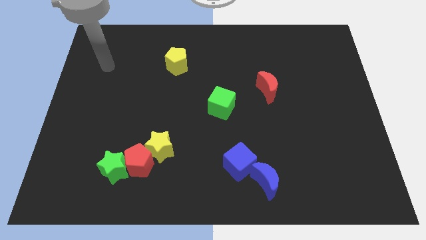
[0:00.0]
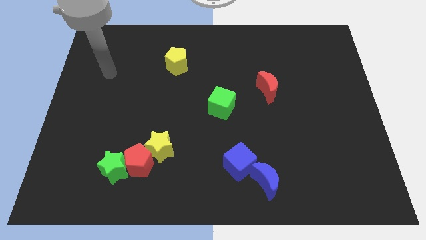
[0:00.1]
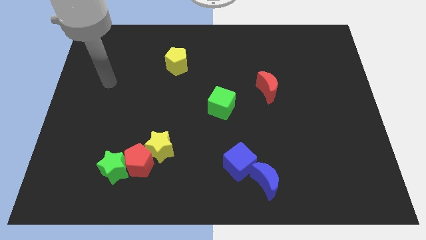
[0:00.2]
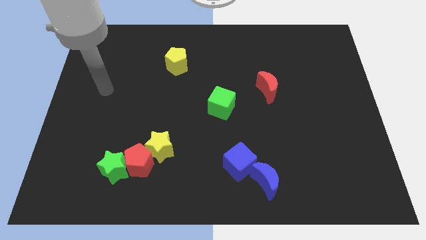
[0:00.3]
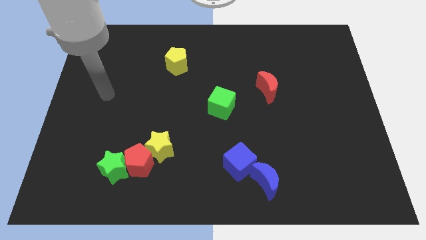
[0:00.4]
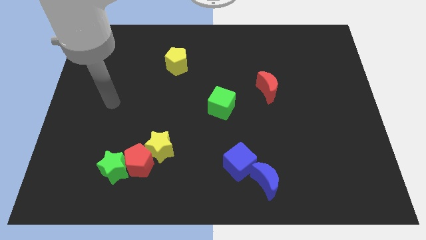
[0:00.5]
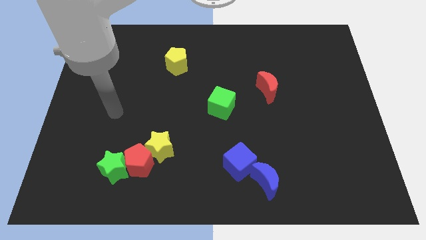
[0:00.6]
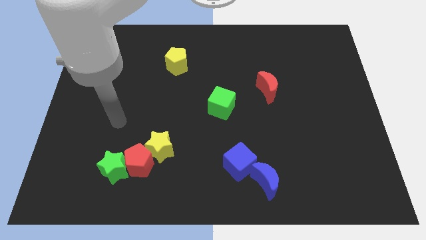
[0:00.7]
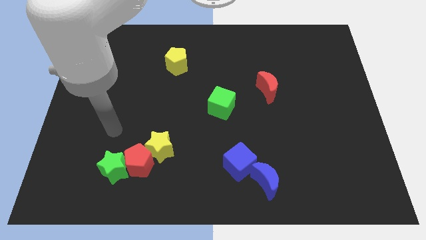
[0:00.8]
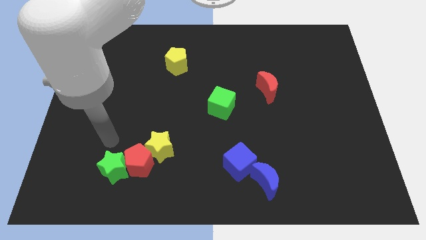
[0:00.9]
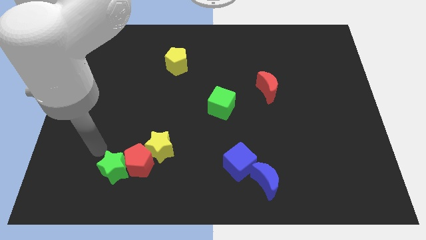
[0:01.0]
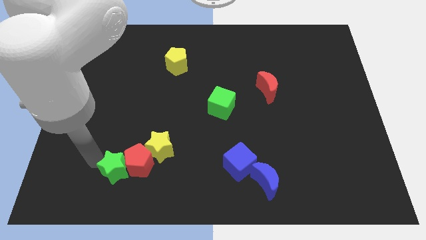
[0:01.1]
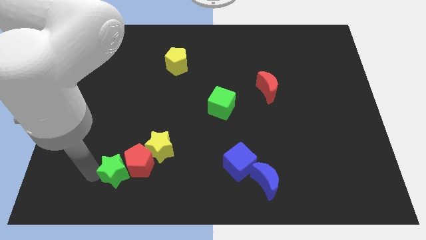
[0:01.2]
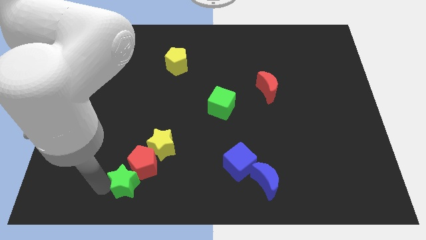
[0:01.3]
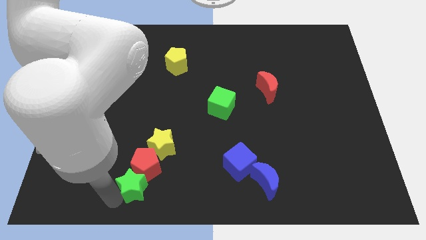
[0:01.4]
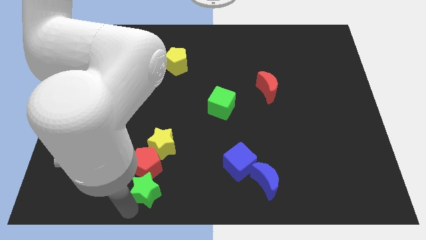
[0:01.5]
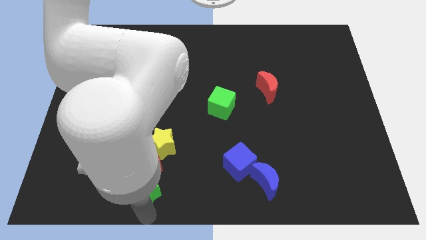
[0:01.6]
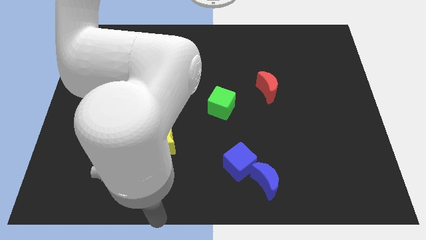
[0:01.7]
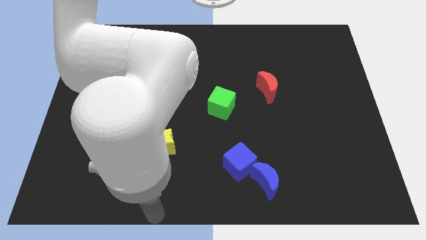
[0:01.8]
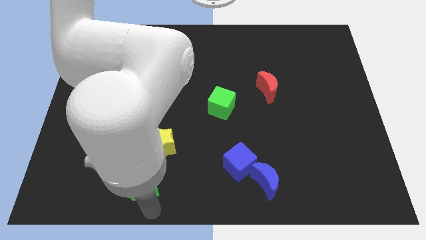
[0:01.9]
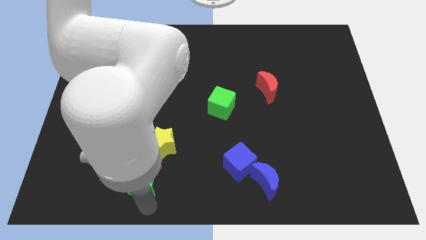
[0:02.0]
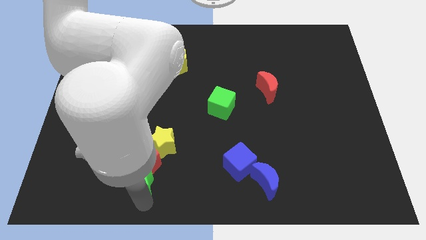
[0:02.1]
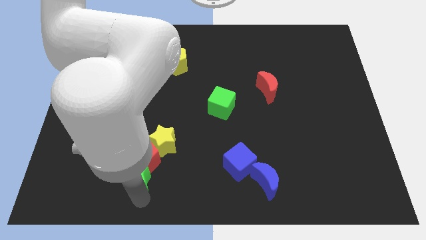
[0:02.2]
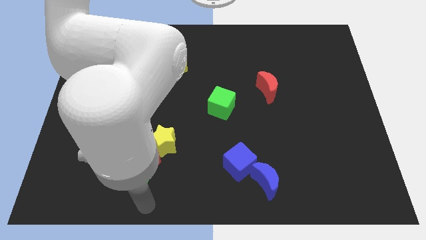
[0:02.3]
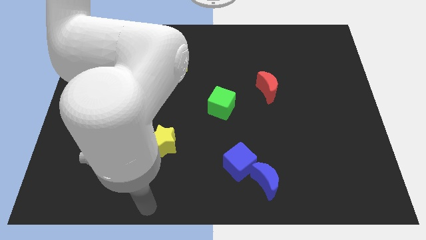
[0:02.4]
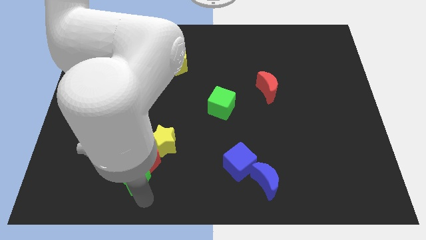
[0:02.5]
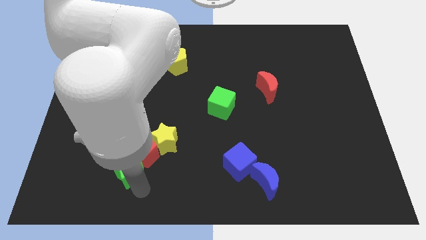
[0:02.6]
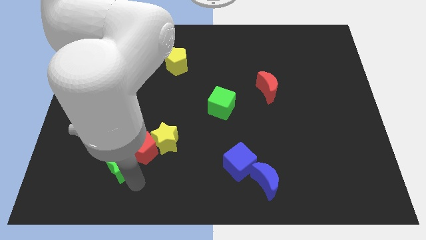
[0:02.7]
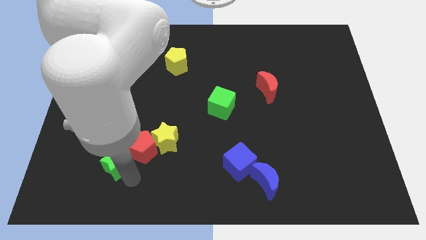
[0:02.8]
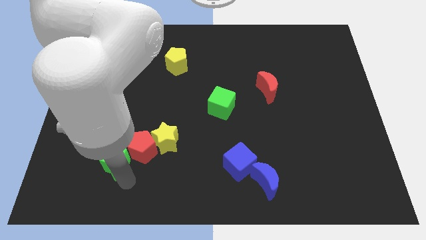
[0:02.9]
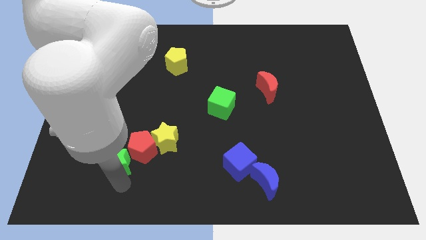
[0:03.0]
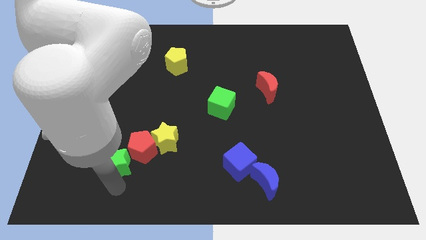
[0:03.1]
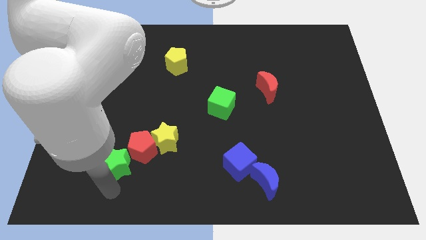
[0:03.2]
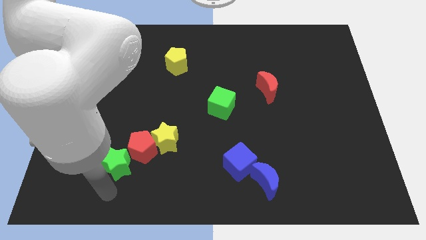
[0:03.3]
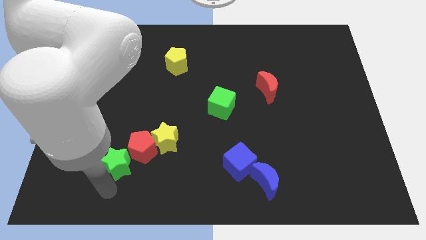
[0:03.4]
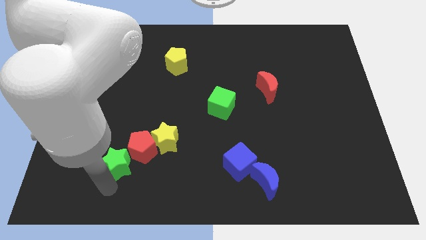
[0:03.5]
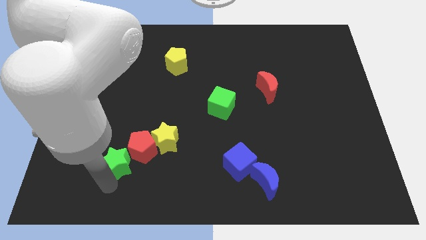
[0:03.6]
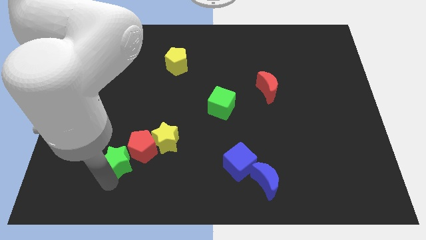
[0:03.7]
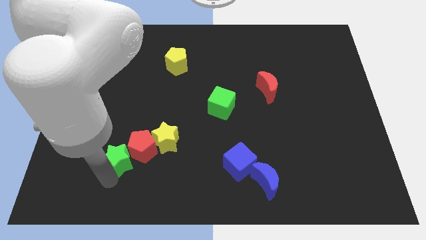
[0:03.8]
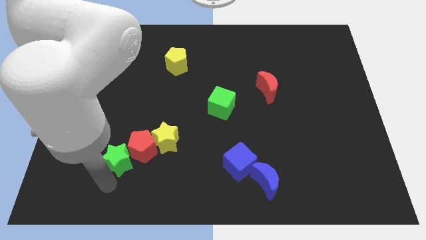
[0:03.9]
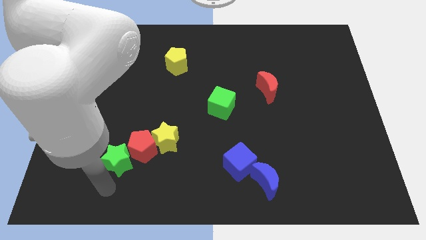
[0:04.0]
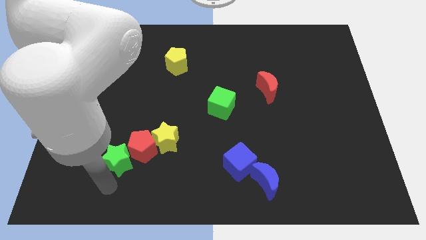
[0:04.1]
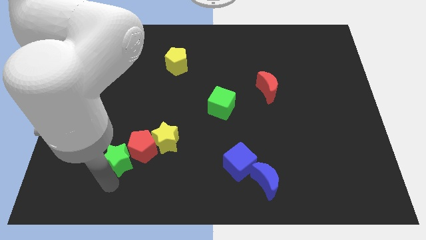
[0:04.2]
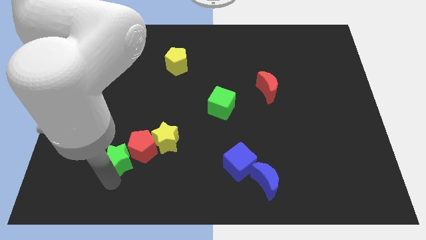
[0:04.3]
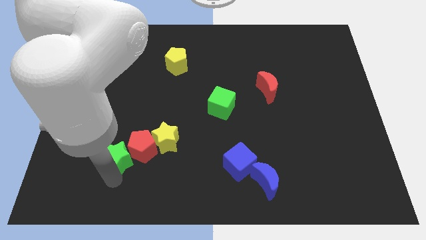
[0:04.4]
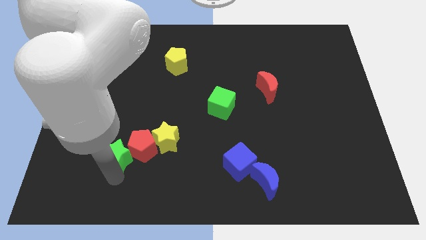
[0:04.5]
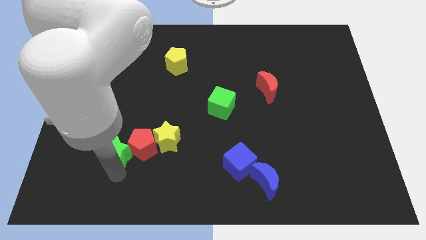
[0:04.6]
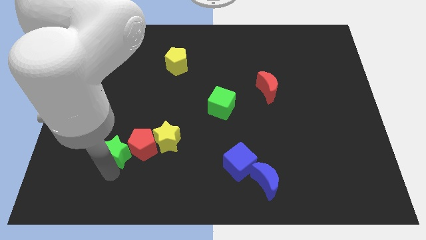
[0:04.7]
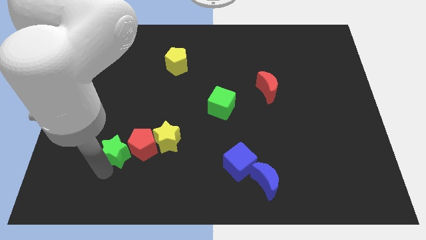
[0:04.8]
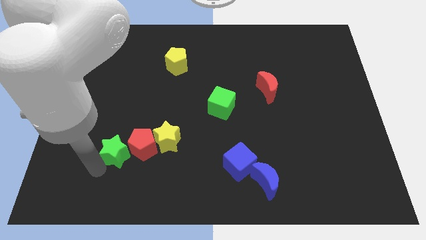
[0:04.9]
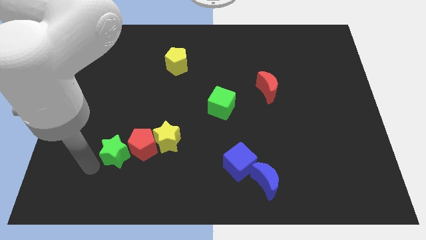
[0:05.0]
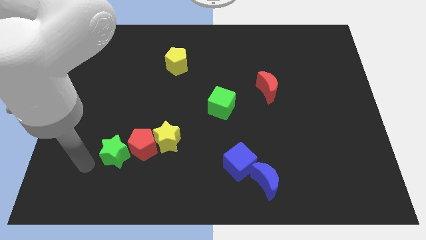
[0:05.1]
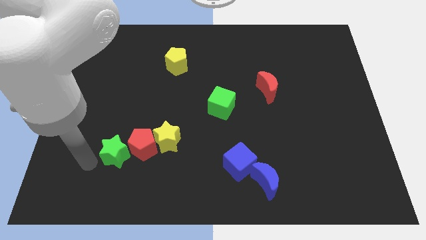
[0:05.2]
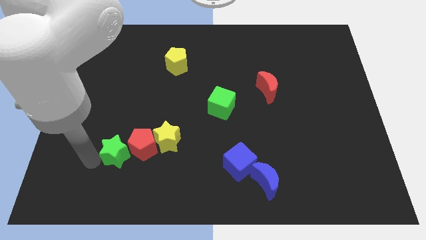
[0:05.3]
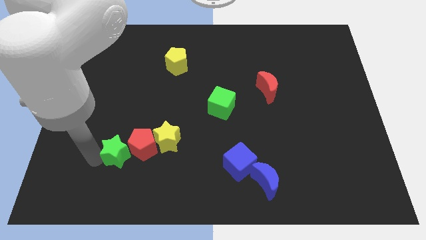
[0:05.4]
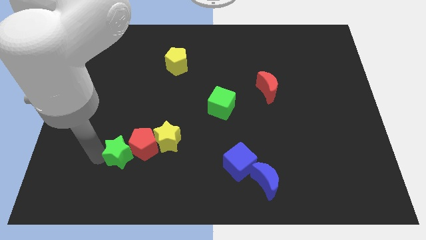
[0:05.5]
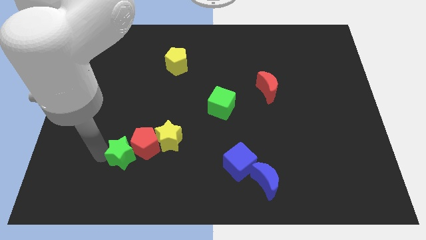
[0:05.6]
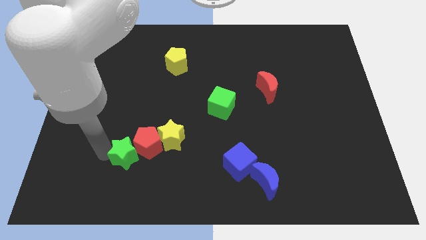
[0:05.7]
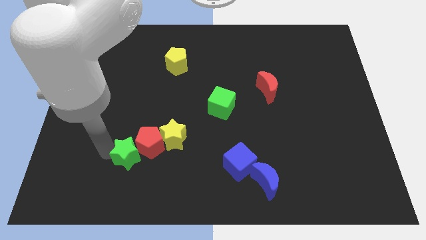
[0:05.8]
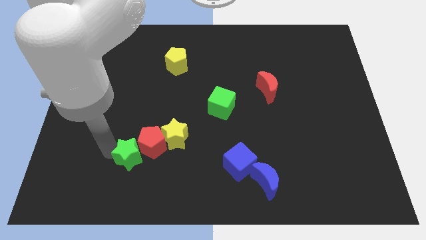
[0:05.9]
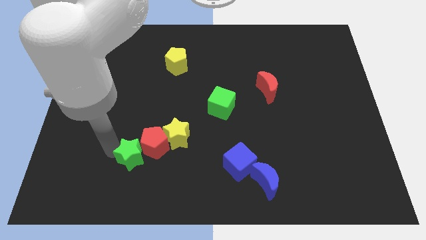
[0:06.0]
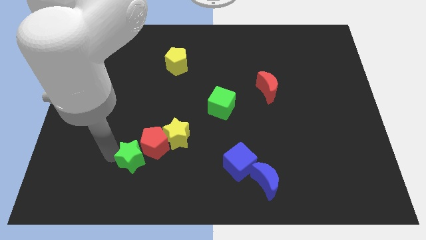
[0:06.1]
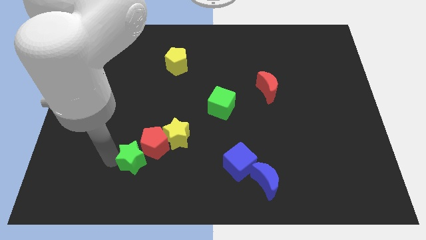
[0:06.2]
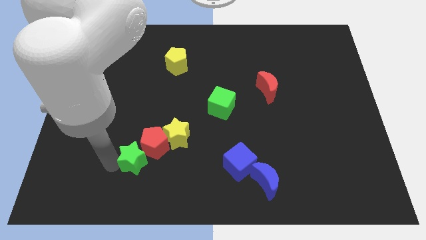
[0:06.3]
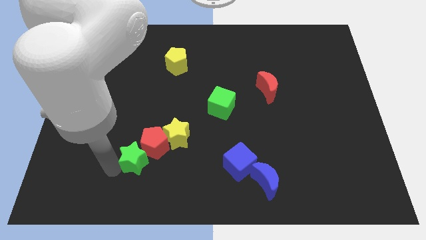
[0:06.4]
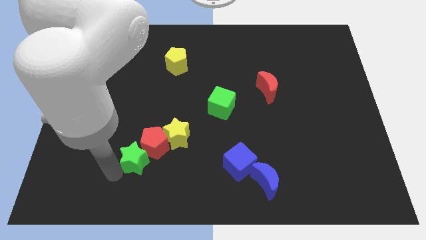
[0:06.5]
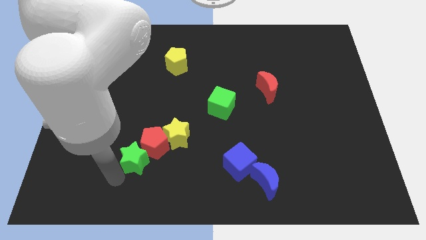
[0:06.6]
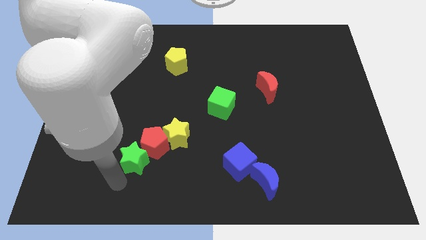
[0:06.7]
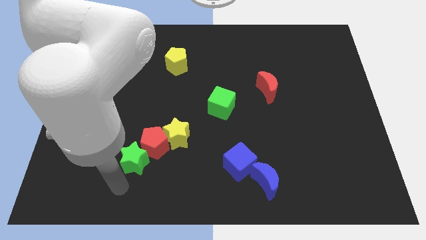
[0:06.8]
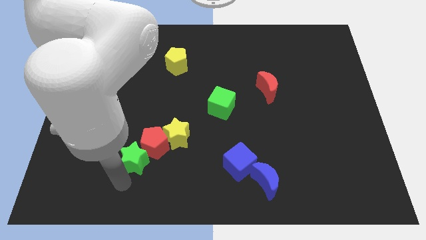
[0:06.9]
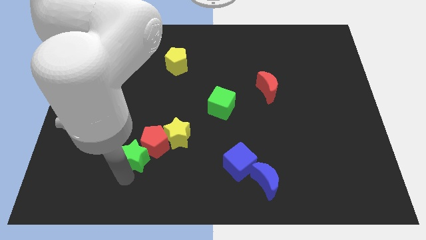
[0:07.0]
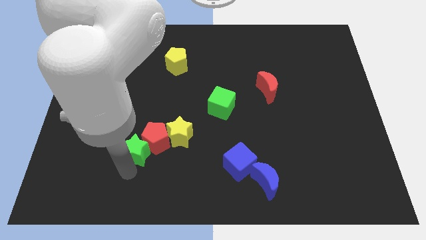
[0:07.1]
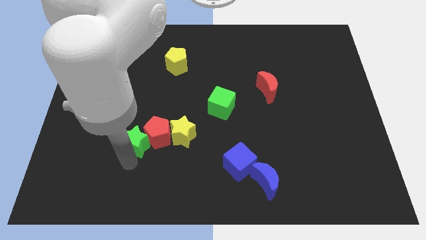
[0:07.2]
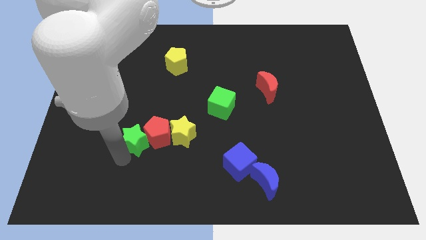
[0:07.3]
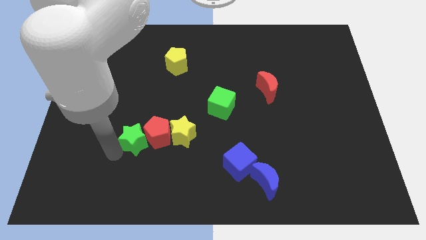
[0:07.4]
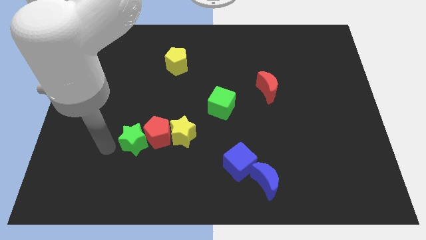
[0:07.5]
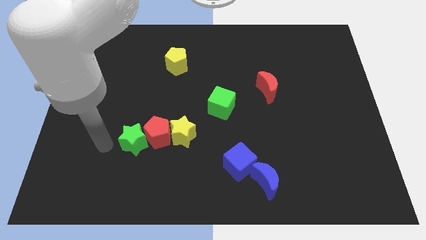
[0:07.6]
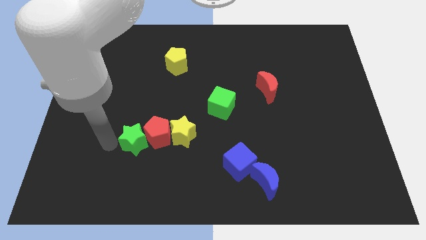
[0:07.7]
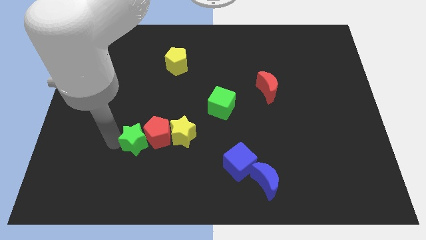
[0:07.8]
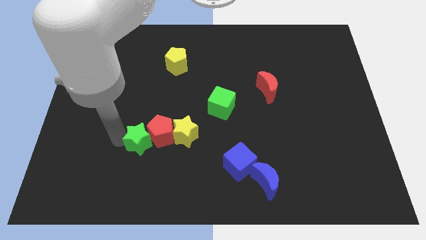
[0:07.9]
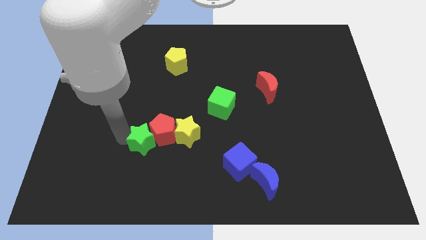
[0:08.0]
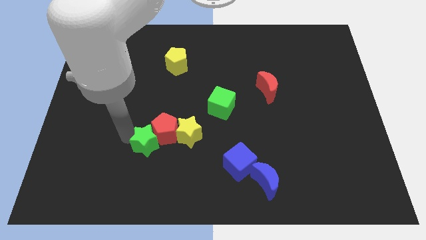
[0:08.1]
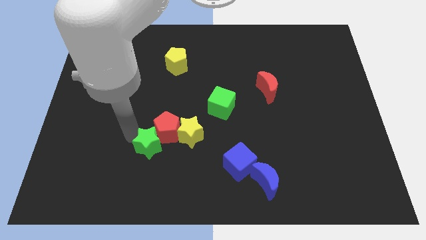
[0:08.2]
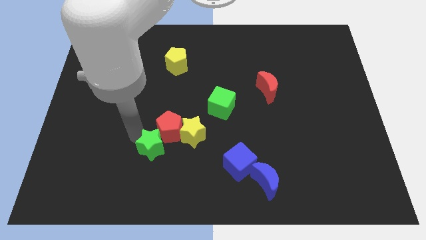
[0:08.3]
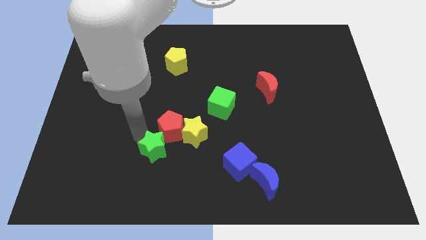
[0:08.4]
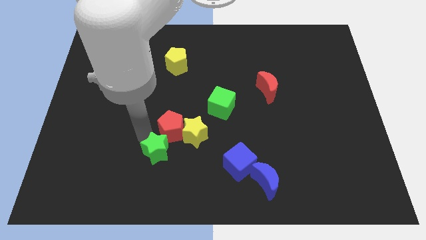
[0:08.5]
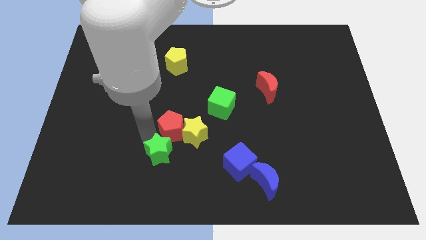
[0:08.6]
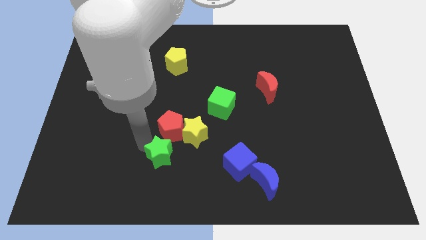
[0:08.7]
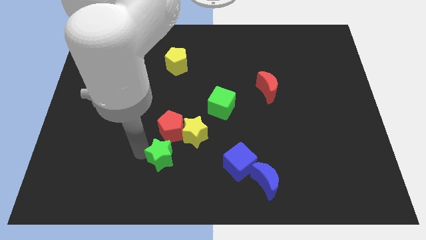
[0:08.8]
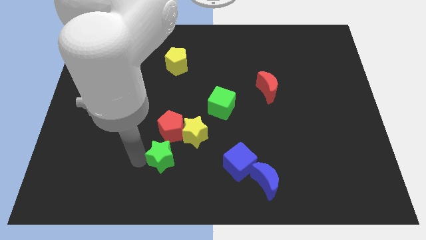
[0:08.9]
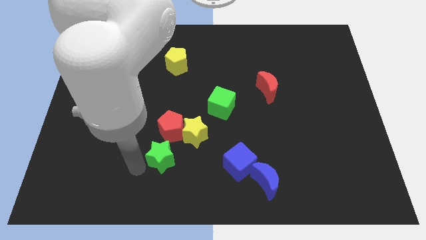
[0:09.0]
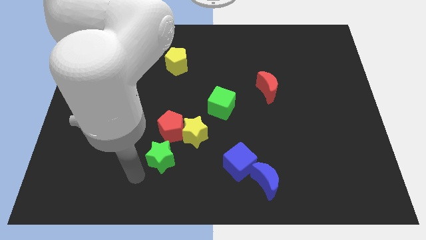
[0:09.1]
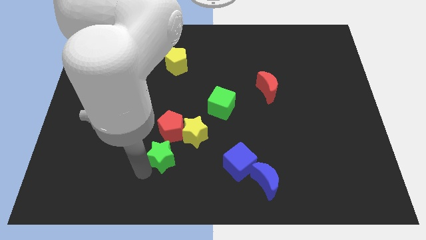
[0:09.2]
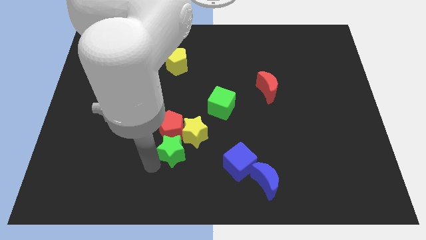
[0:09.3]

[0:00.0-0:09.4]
slide the green star next to the yellow star
